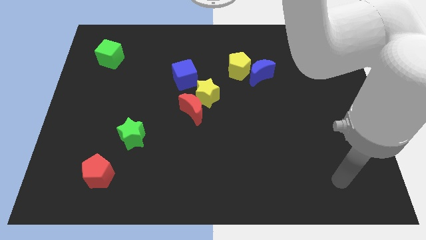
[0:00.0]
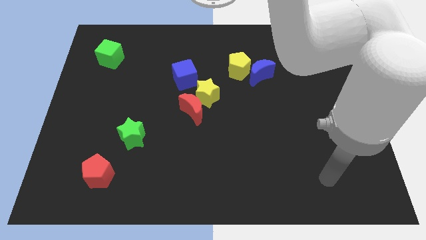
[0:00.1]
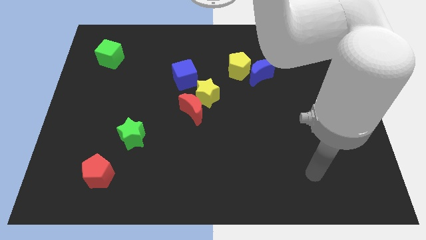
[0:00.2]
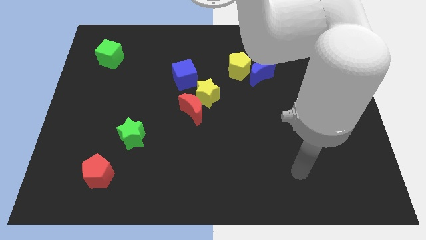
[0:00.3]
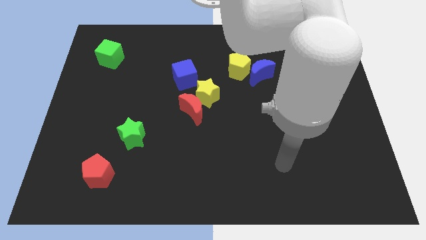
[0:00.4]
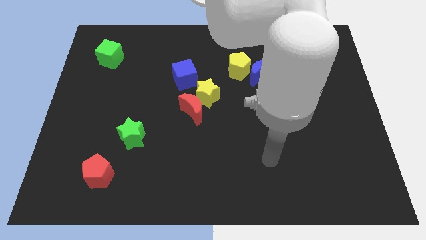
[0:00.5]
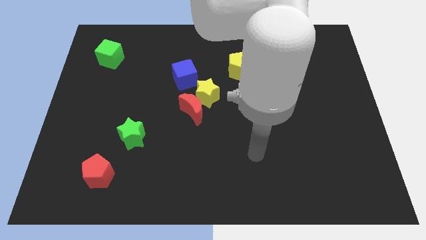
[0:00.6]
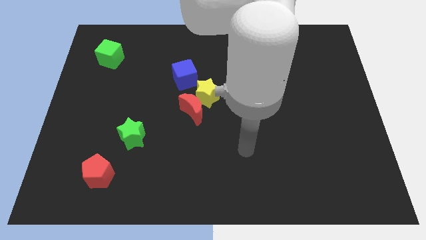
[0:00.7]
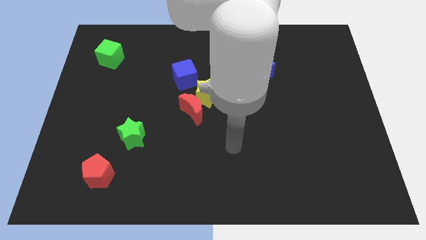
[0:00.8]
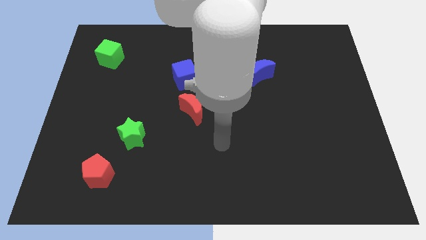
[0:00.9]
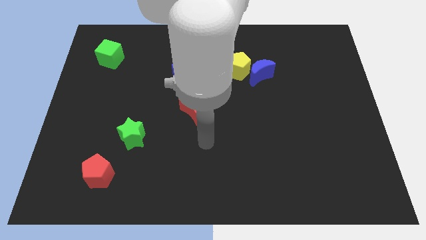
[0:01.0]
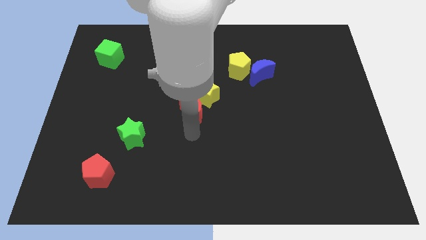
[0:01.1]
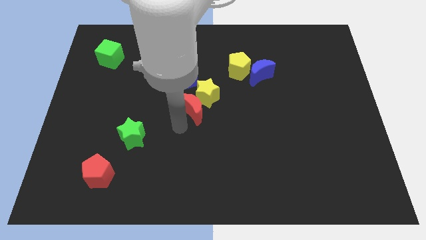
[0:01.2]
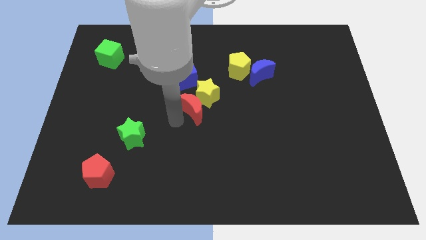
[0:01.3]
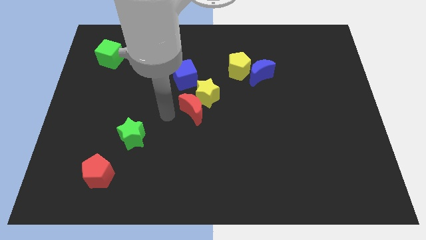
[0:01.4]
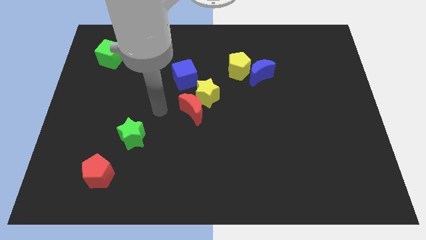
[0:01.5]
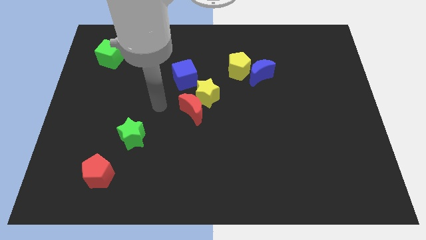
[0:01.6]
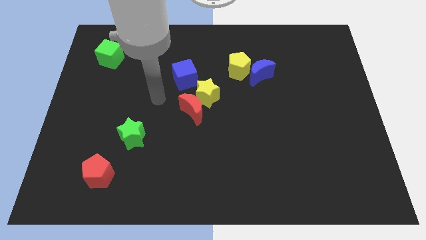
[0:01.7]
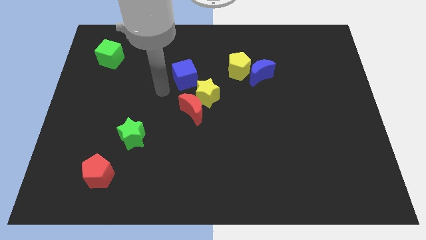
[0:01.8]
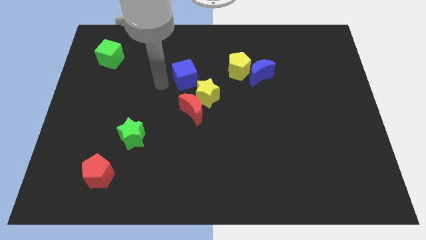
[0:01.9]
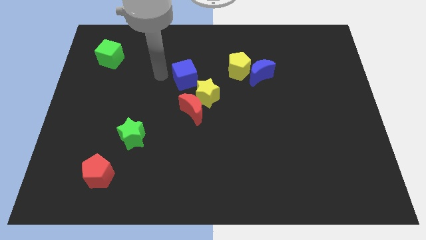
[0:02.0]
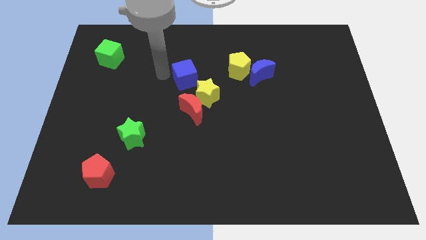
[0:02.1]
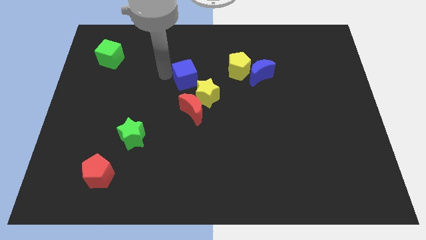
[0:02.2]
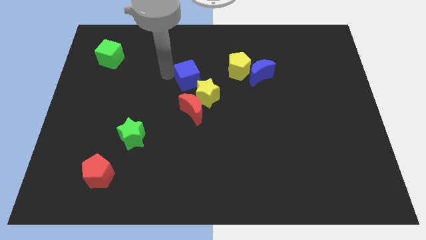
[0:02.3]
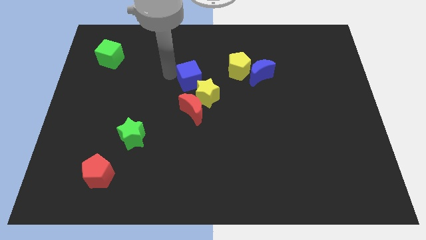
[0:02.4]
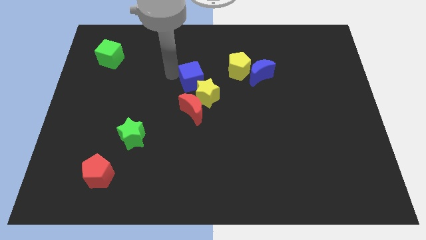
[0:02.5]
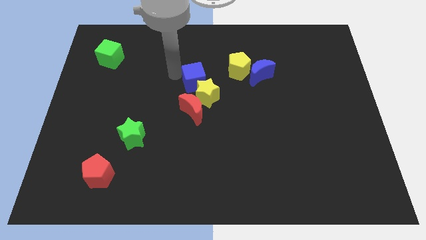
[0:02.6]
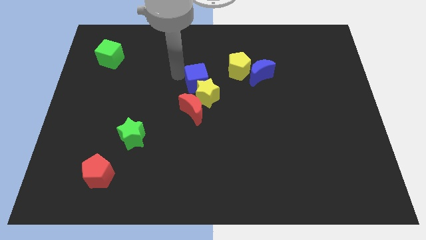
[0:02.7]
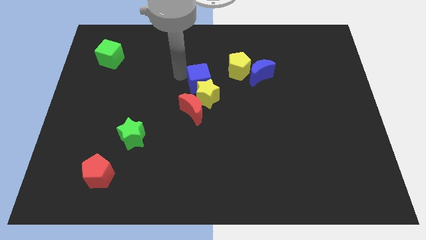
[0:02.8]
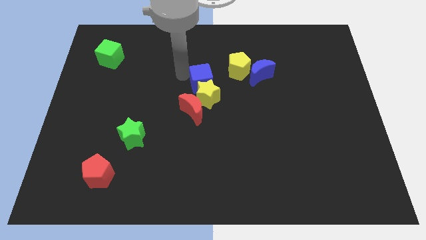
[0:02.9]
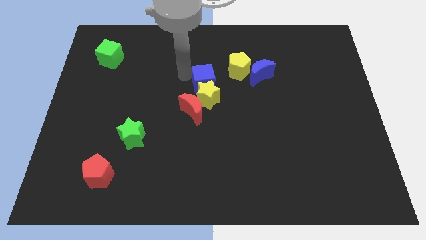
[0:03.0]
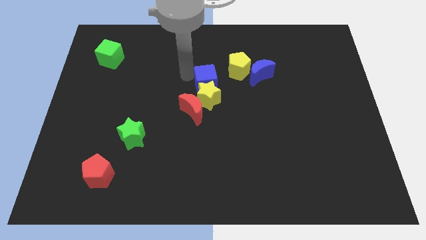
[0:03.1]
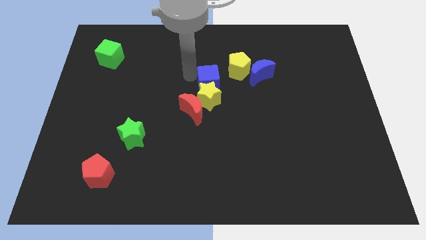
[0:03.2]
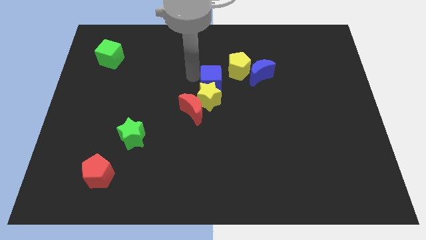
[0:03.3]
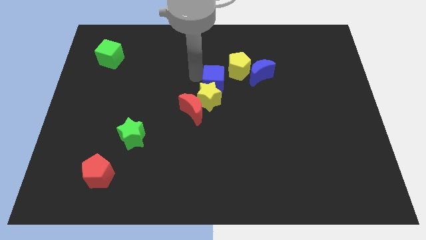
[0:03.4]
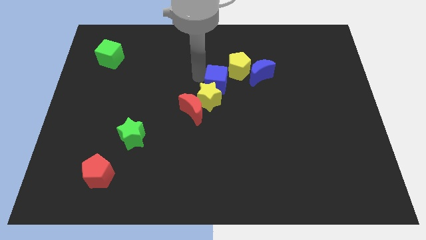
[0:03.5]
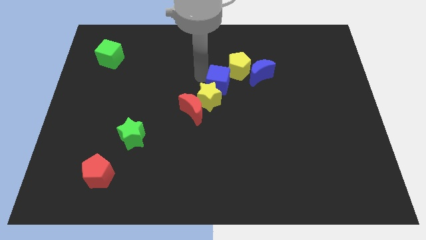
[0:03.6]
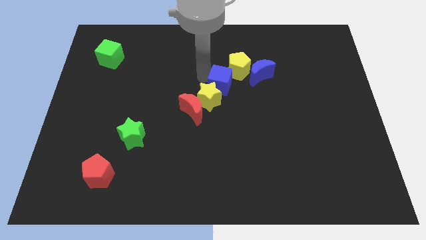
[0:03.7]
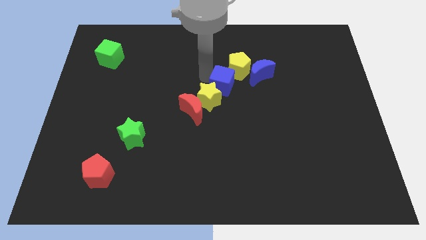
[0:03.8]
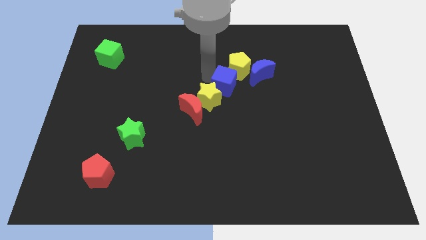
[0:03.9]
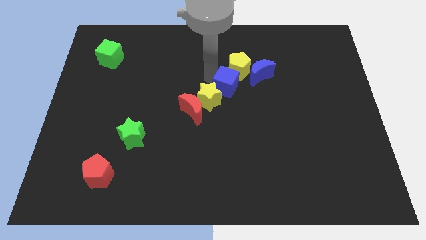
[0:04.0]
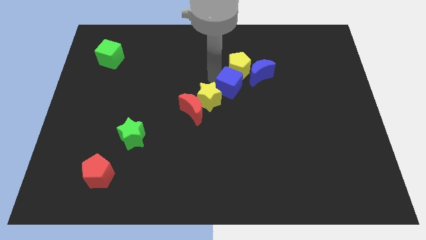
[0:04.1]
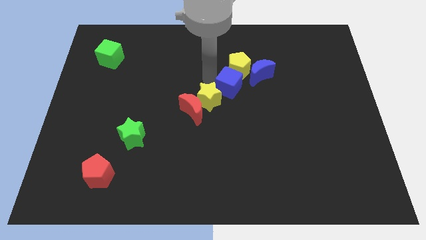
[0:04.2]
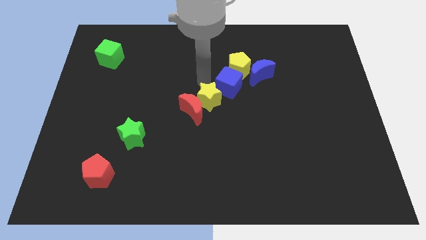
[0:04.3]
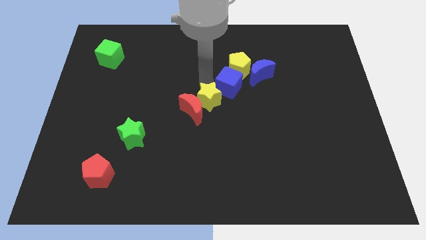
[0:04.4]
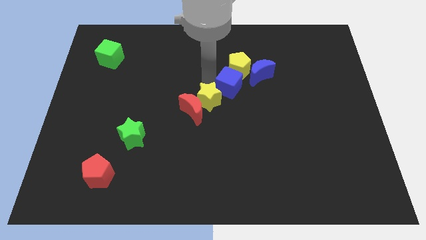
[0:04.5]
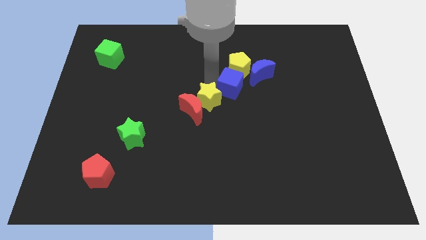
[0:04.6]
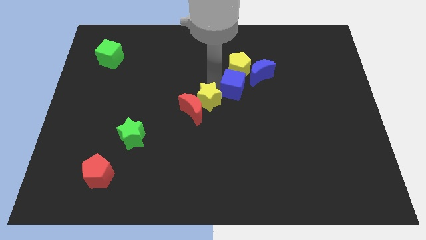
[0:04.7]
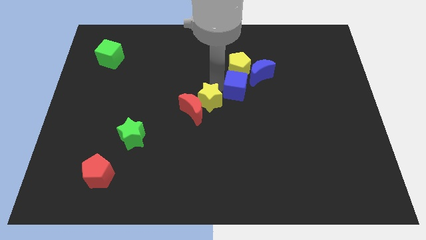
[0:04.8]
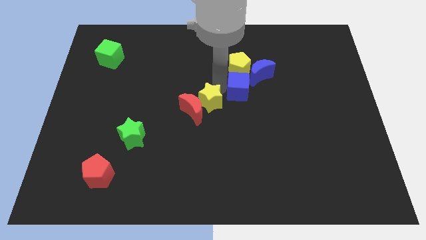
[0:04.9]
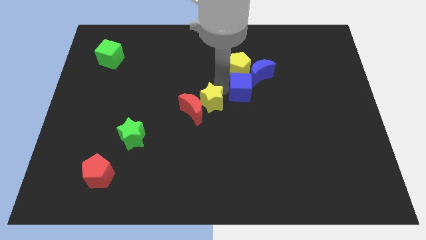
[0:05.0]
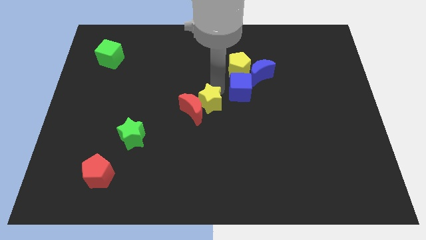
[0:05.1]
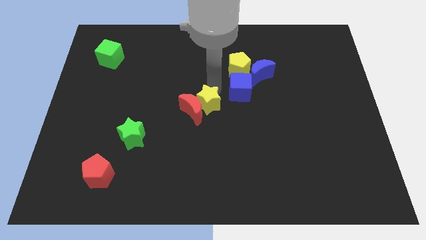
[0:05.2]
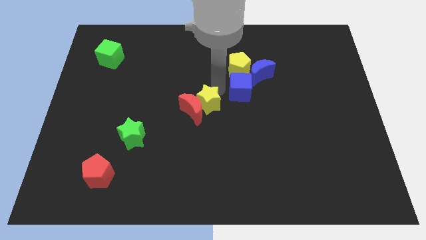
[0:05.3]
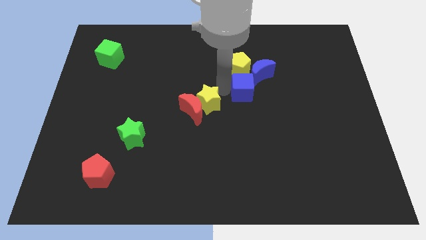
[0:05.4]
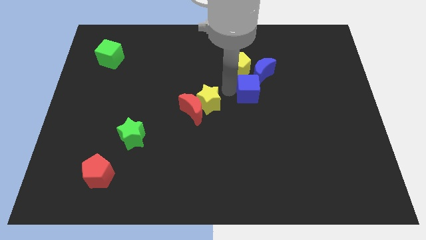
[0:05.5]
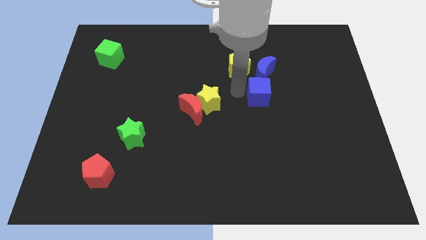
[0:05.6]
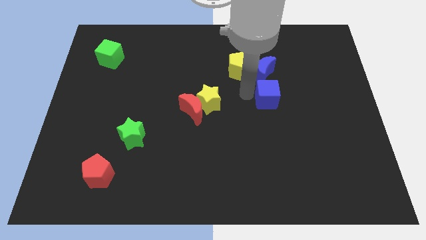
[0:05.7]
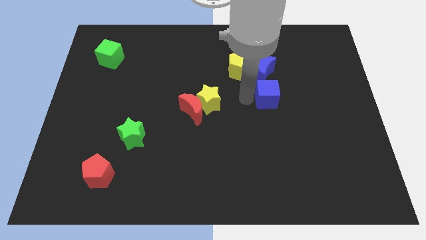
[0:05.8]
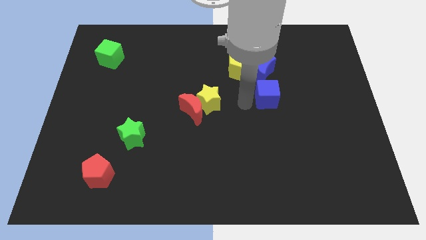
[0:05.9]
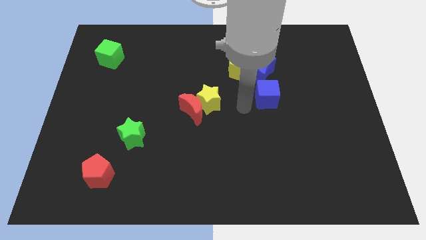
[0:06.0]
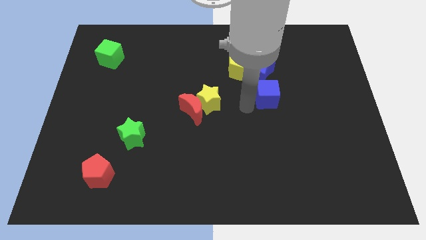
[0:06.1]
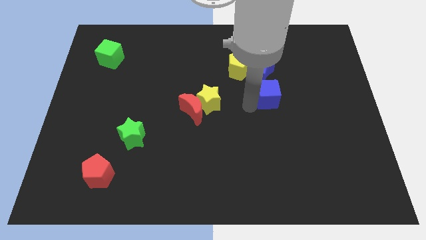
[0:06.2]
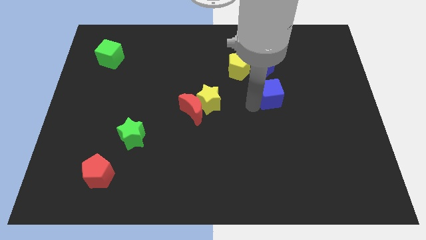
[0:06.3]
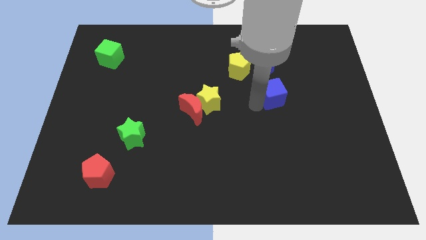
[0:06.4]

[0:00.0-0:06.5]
move the blue cube right

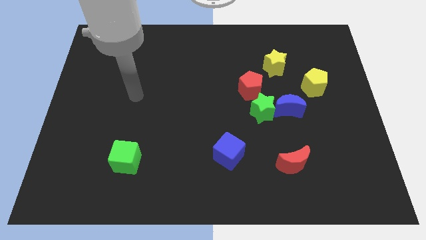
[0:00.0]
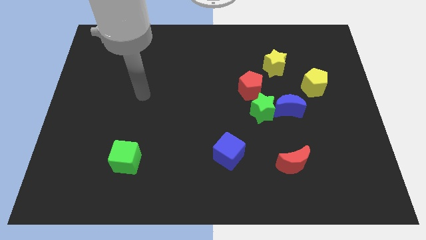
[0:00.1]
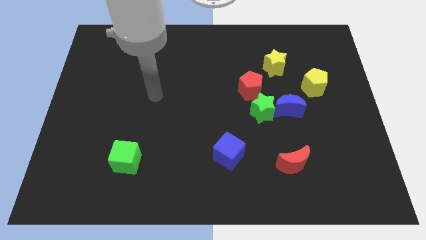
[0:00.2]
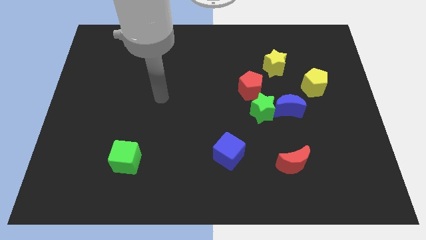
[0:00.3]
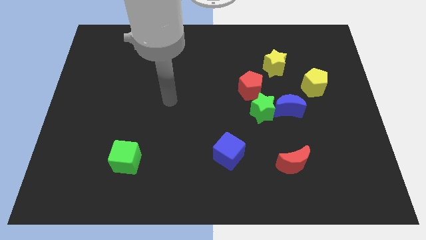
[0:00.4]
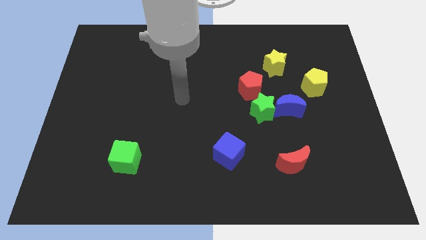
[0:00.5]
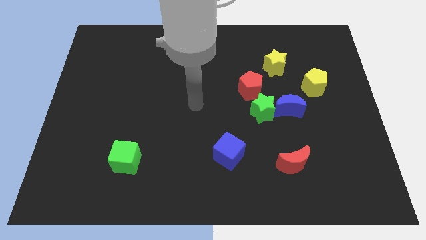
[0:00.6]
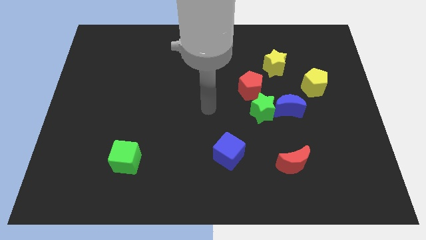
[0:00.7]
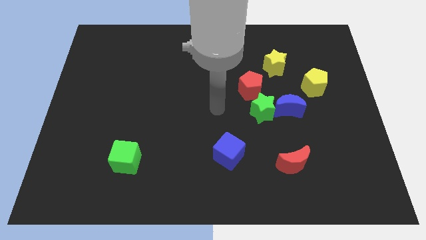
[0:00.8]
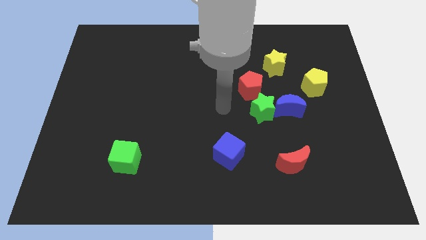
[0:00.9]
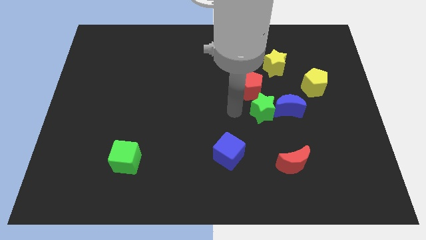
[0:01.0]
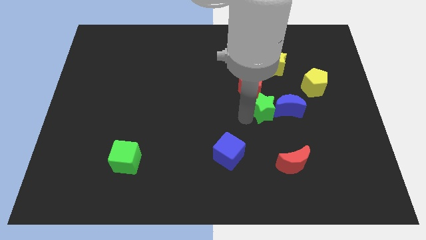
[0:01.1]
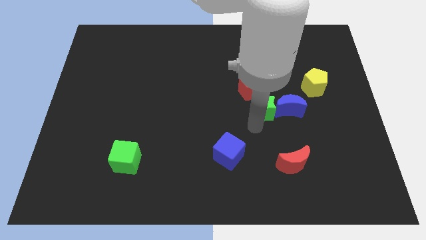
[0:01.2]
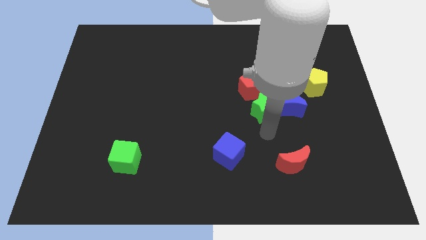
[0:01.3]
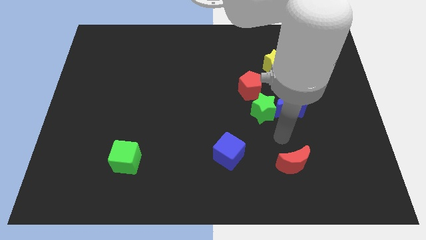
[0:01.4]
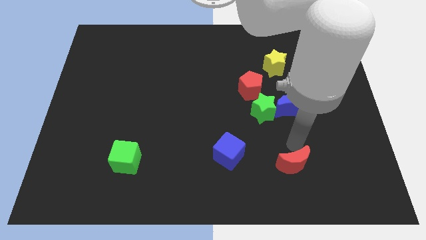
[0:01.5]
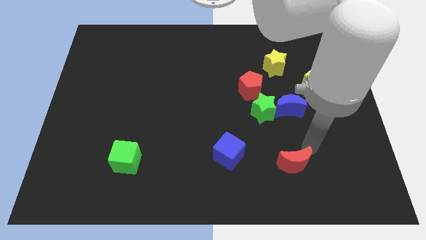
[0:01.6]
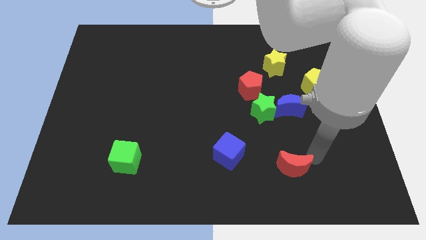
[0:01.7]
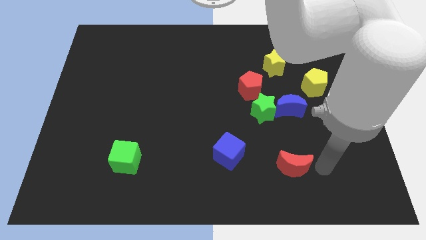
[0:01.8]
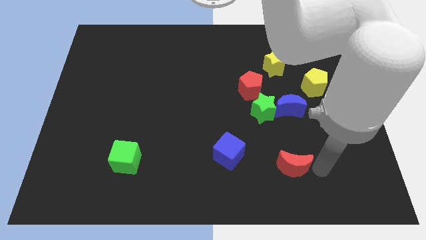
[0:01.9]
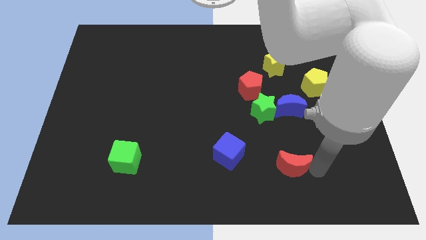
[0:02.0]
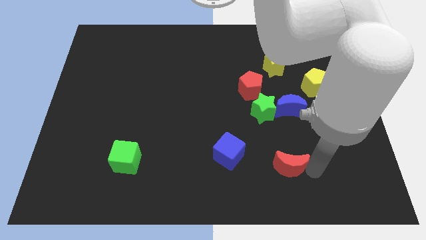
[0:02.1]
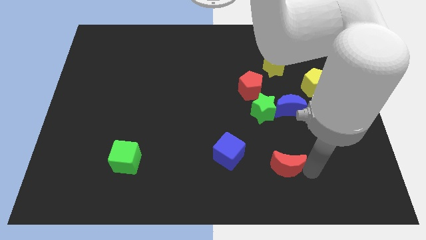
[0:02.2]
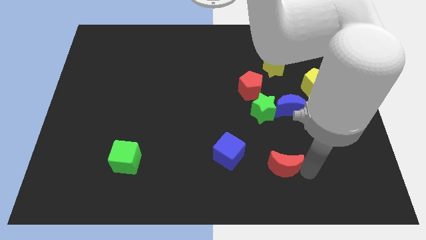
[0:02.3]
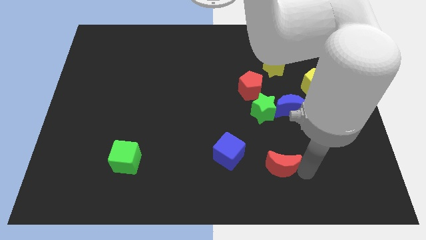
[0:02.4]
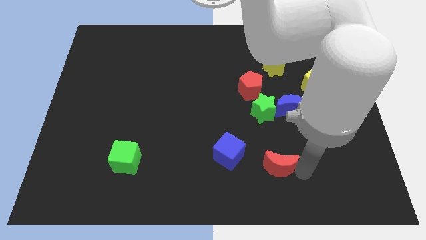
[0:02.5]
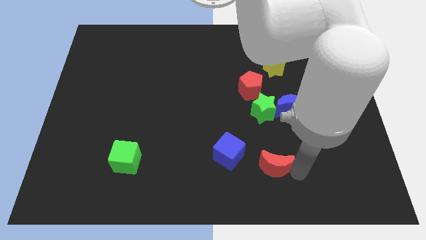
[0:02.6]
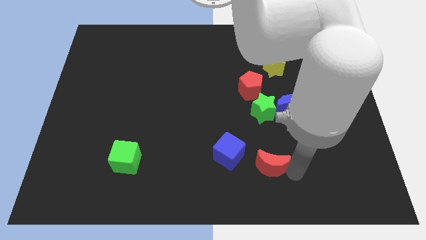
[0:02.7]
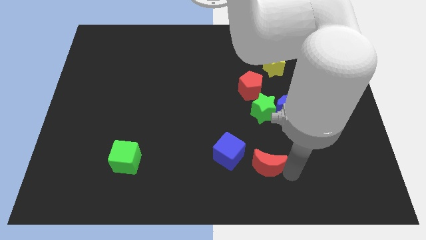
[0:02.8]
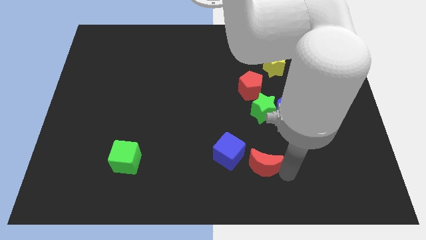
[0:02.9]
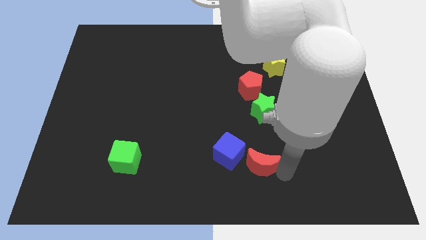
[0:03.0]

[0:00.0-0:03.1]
push the red moon a little left
